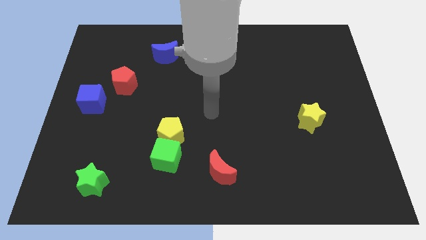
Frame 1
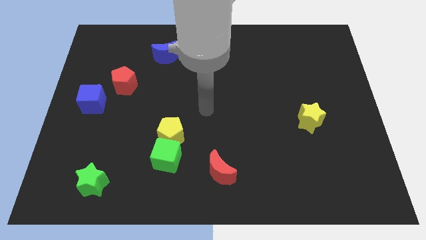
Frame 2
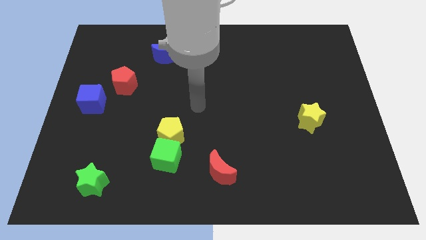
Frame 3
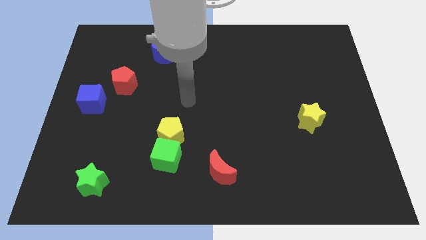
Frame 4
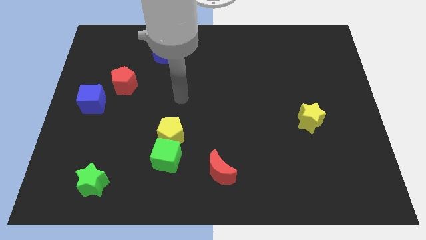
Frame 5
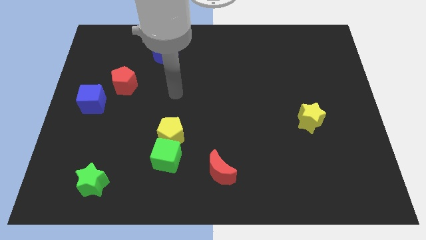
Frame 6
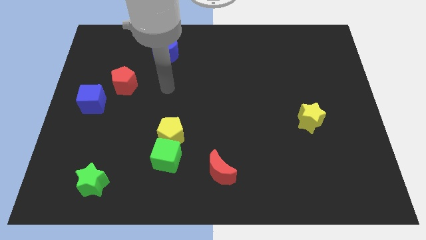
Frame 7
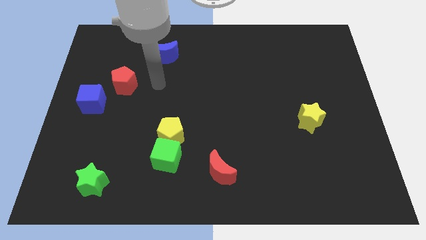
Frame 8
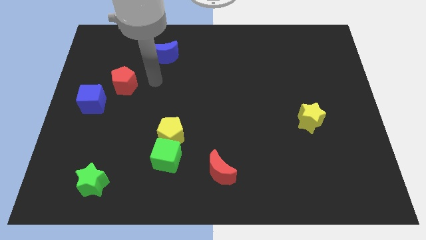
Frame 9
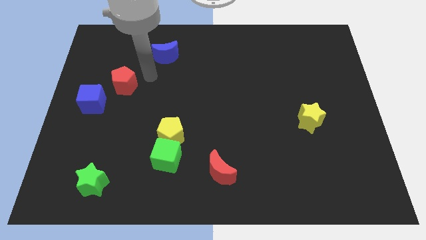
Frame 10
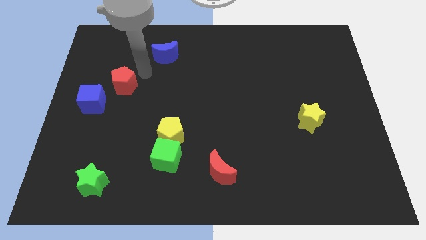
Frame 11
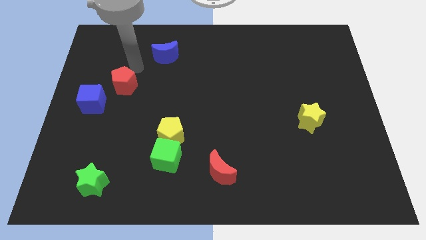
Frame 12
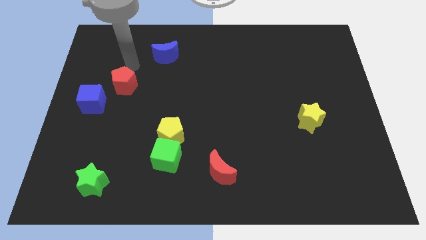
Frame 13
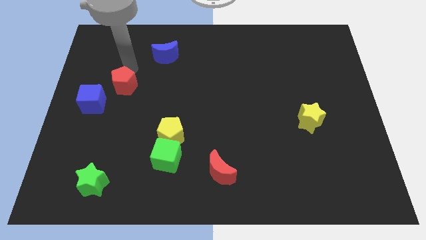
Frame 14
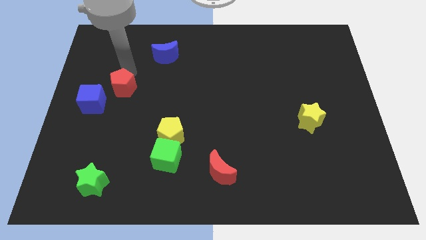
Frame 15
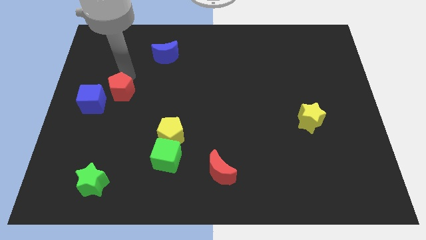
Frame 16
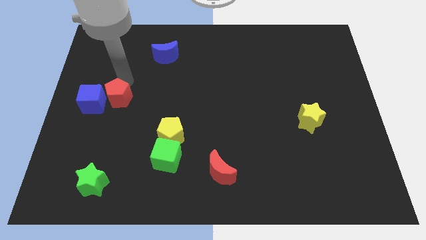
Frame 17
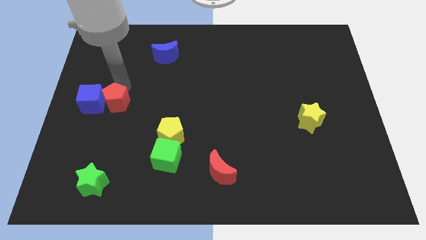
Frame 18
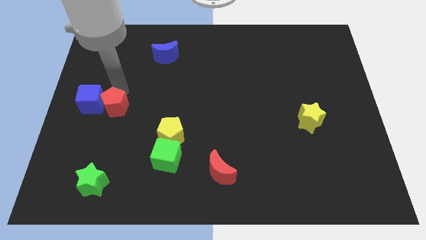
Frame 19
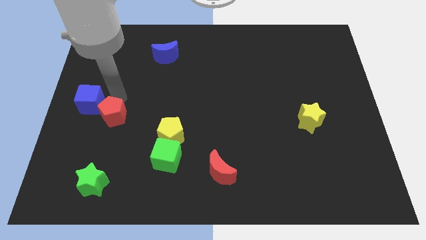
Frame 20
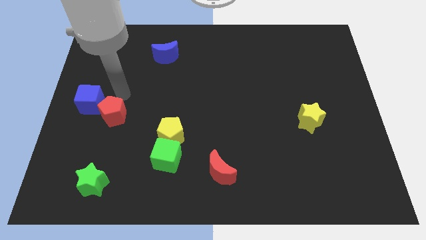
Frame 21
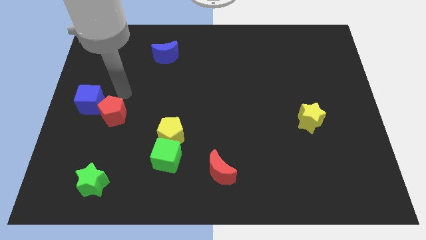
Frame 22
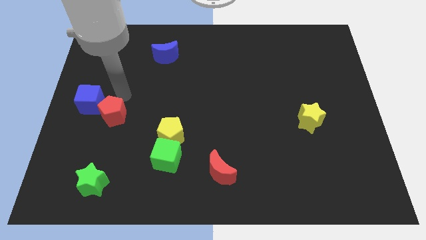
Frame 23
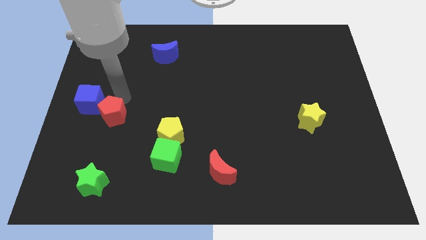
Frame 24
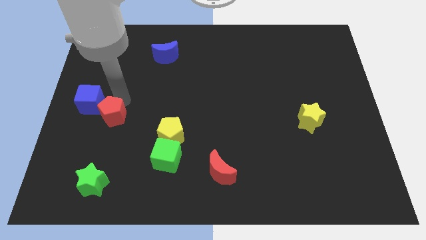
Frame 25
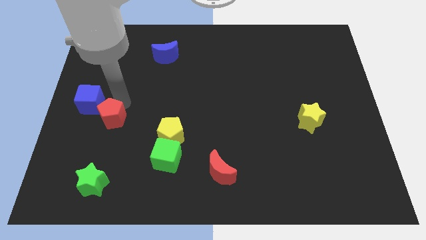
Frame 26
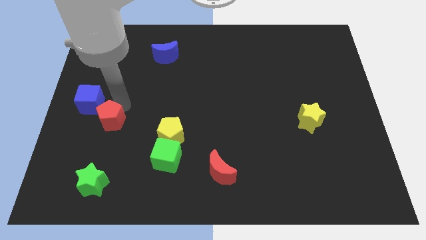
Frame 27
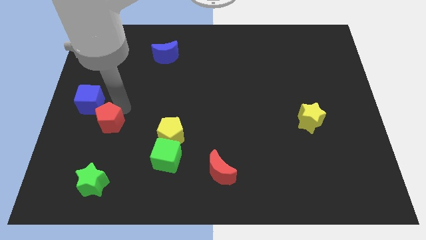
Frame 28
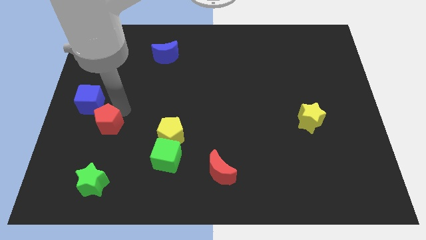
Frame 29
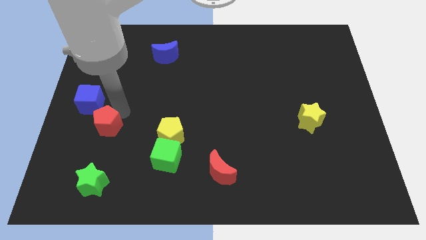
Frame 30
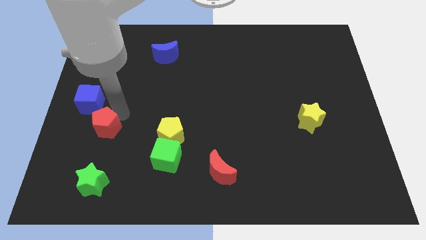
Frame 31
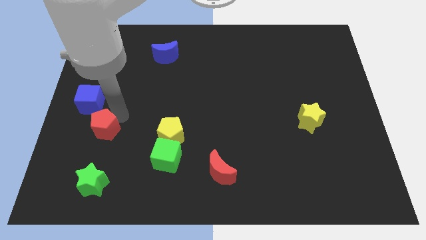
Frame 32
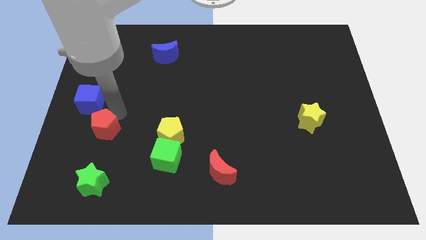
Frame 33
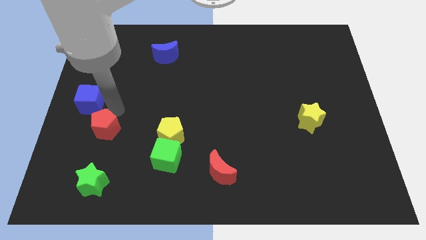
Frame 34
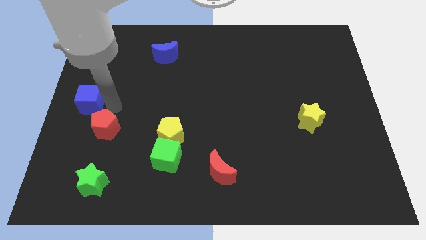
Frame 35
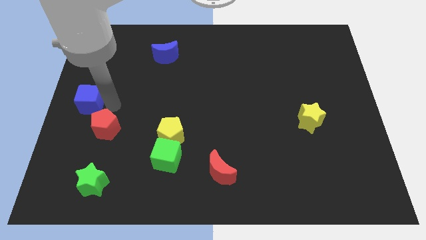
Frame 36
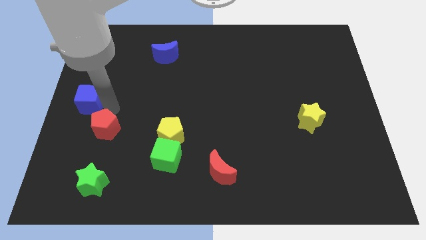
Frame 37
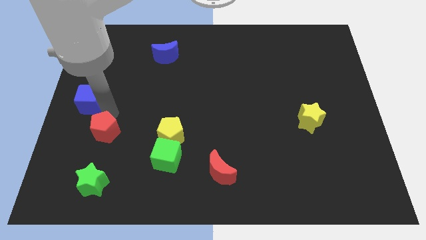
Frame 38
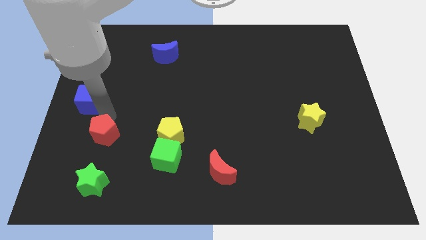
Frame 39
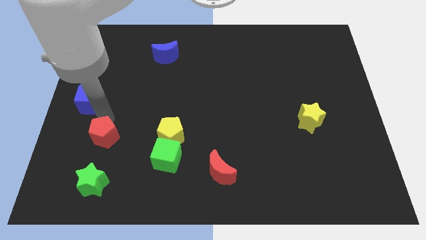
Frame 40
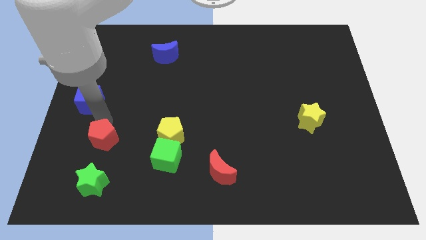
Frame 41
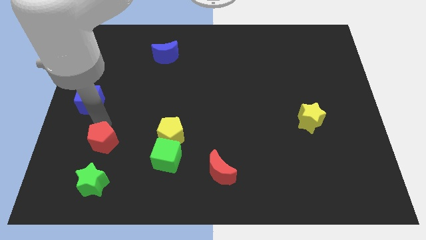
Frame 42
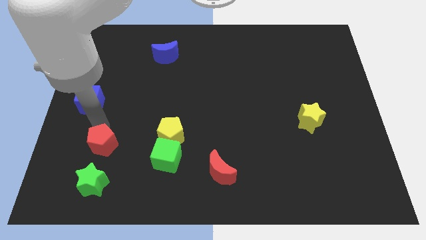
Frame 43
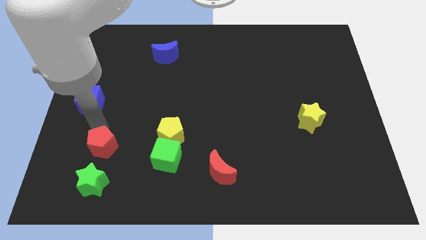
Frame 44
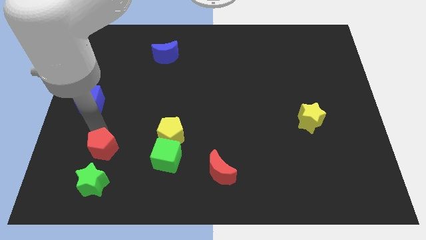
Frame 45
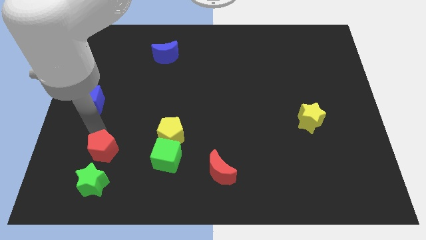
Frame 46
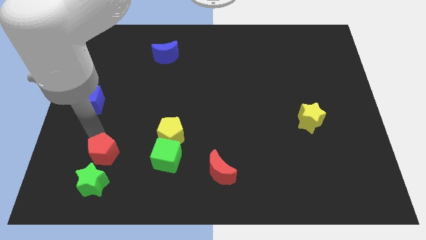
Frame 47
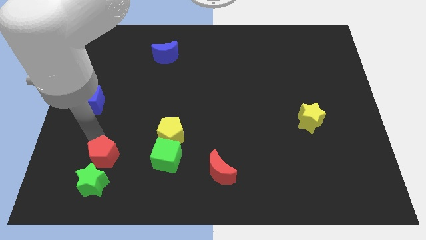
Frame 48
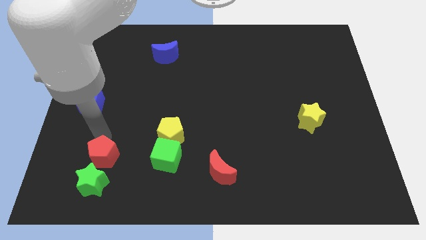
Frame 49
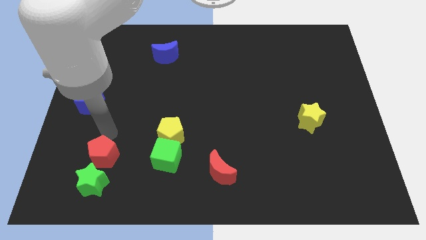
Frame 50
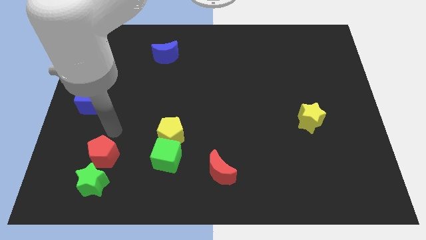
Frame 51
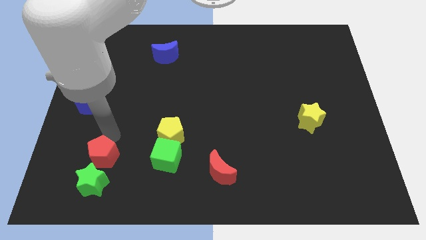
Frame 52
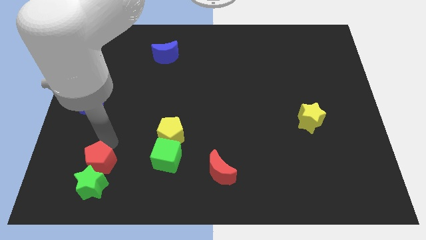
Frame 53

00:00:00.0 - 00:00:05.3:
slide the red pentagon to the green star

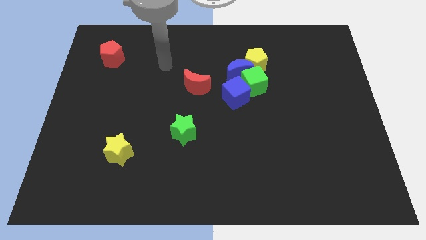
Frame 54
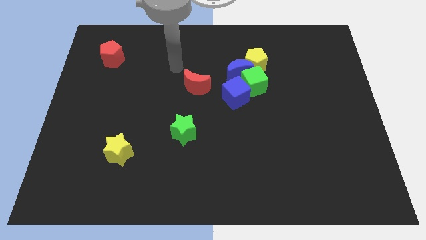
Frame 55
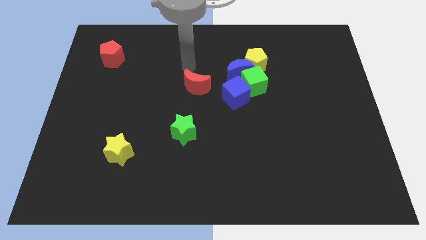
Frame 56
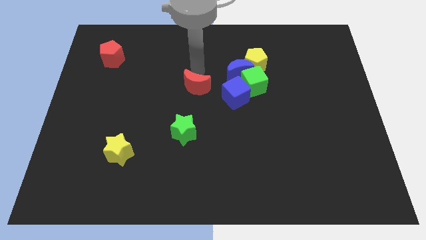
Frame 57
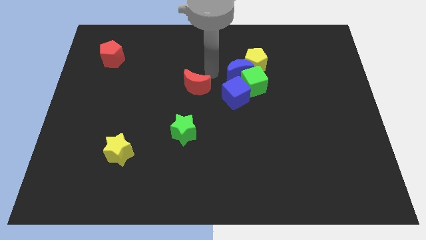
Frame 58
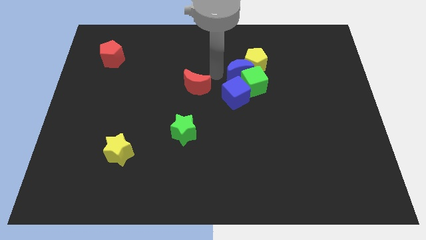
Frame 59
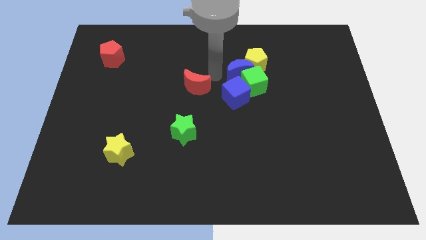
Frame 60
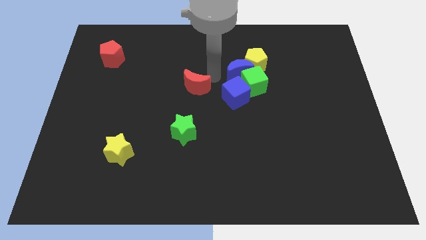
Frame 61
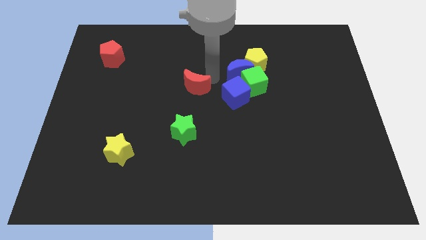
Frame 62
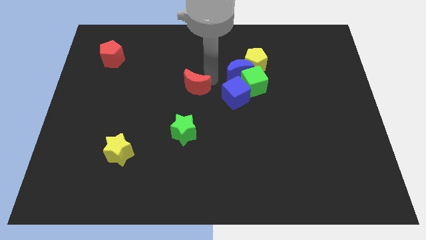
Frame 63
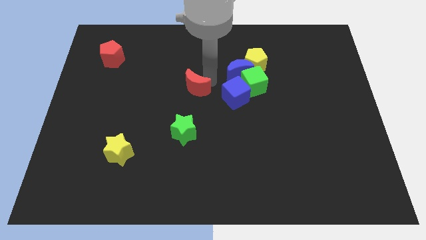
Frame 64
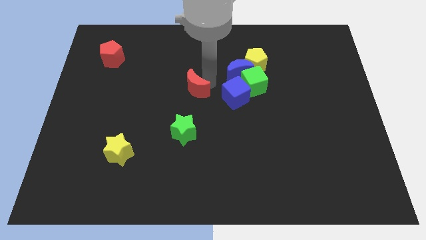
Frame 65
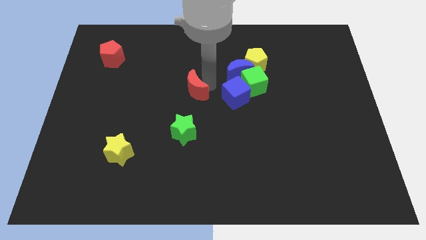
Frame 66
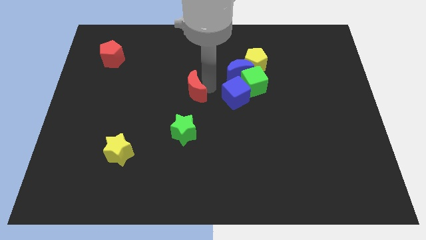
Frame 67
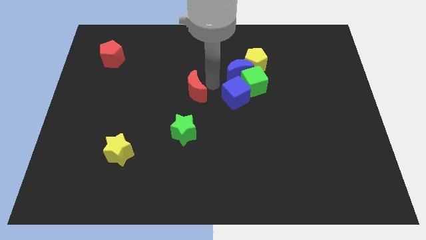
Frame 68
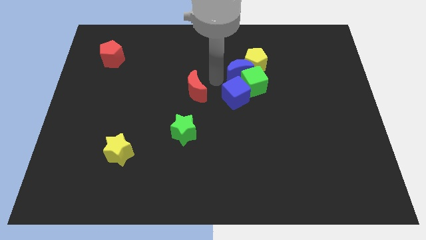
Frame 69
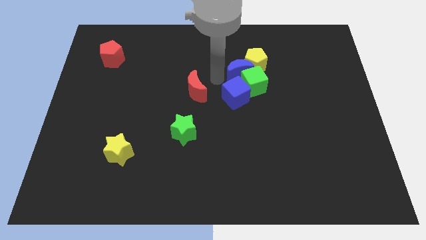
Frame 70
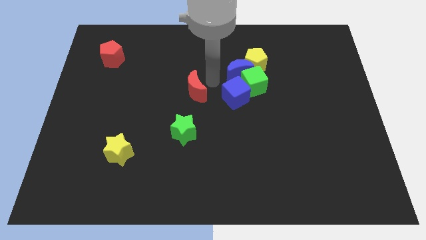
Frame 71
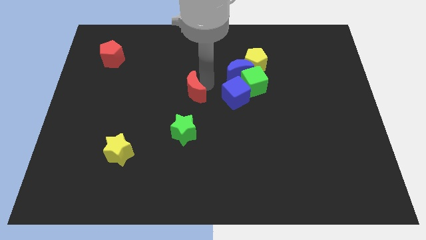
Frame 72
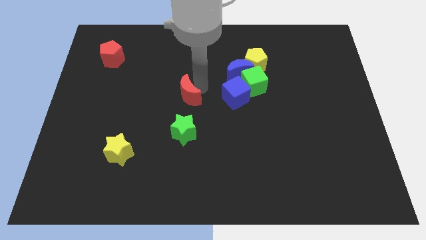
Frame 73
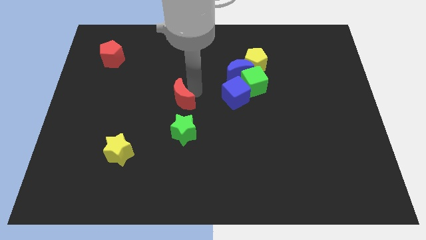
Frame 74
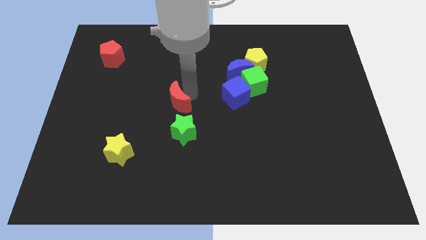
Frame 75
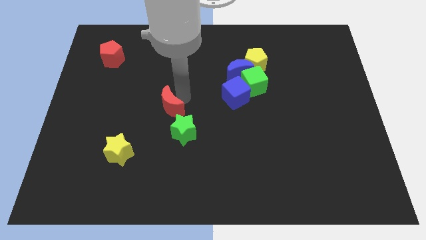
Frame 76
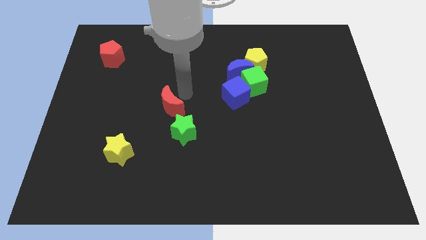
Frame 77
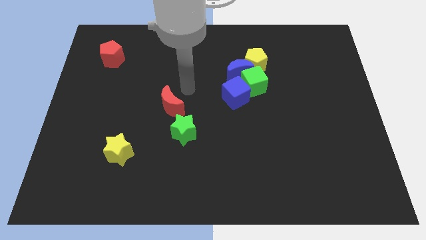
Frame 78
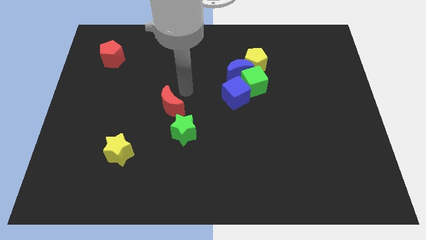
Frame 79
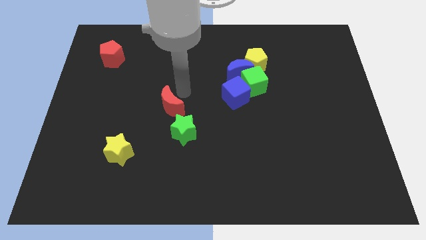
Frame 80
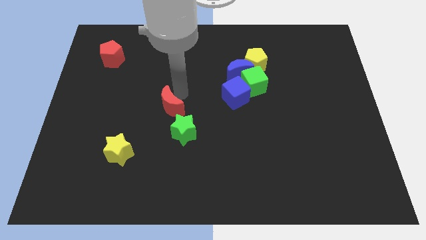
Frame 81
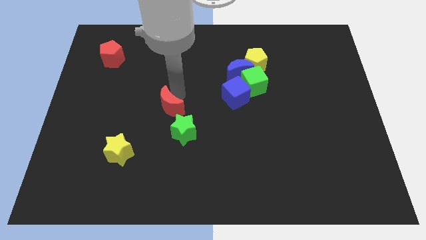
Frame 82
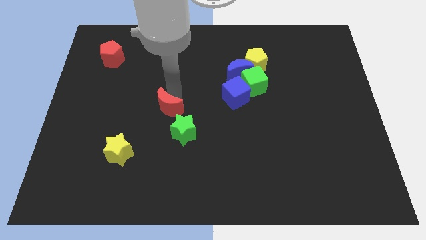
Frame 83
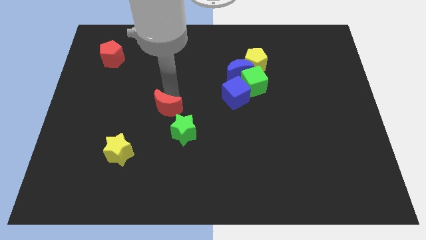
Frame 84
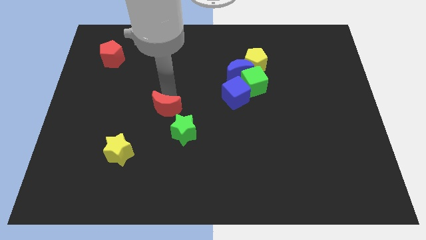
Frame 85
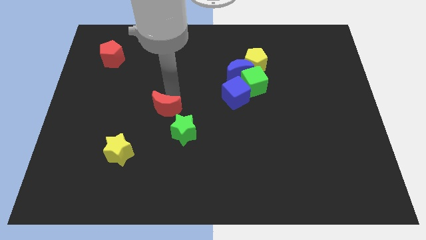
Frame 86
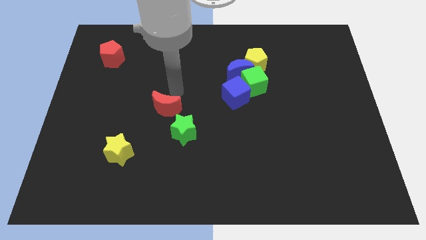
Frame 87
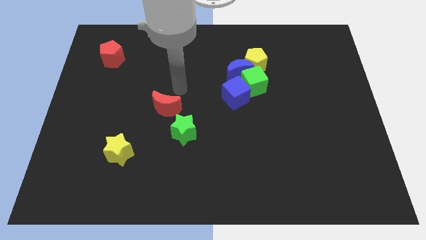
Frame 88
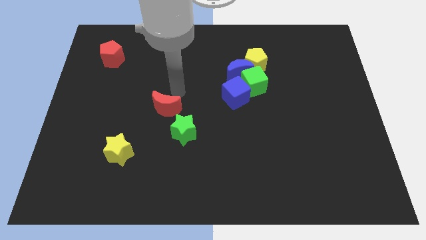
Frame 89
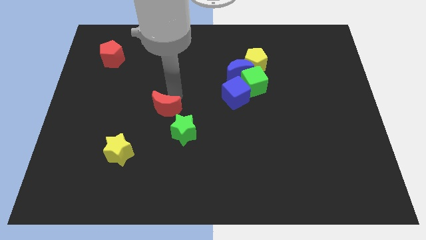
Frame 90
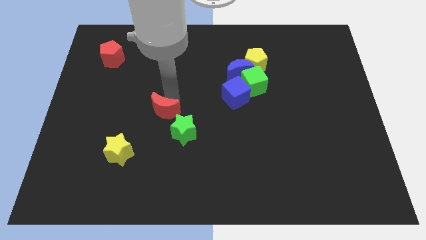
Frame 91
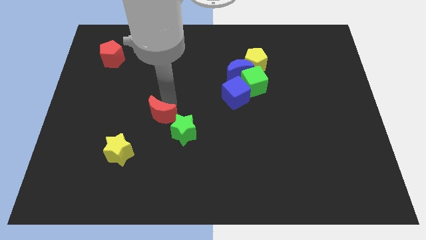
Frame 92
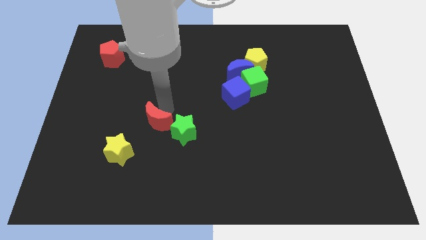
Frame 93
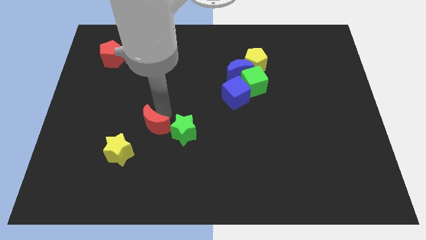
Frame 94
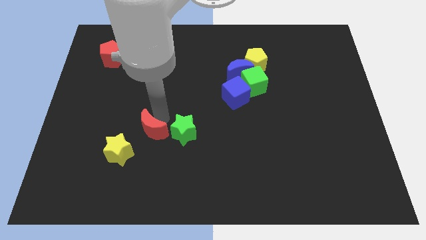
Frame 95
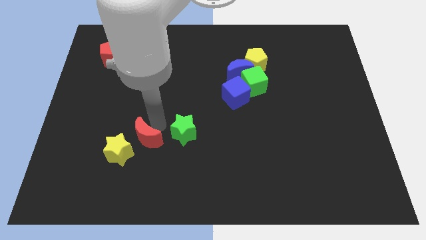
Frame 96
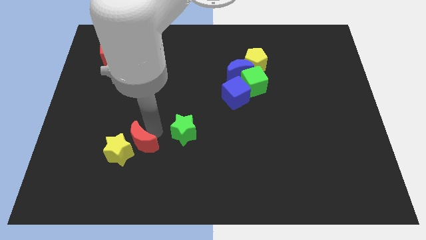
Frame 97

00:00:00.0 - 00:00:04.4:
put the red moon towards the yellow star
